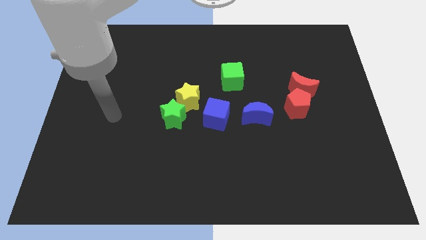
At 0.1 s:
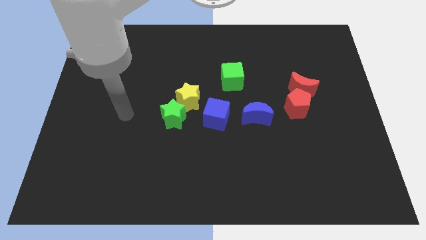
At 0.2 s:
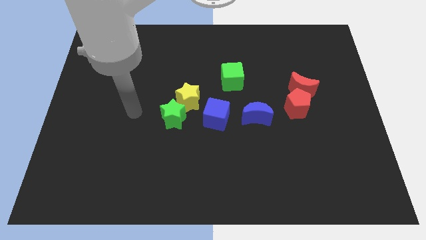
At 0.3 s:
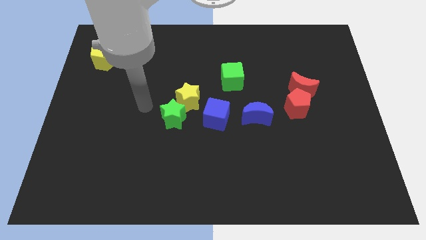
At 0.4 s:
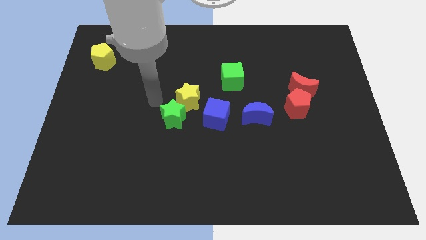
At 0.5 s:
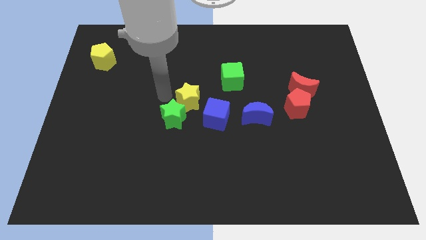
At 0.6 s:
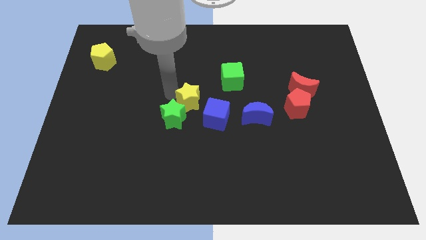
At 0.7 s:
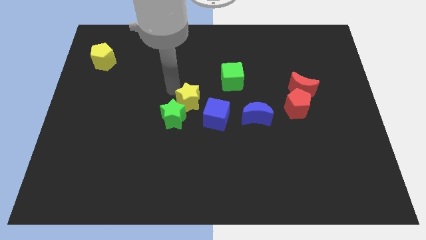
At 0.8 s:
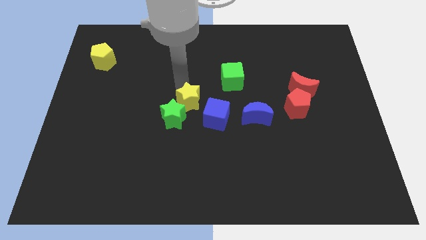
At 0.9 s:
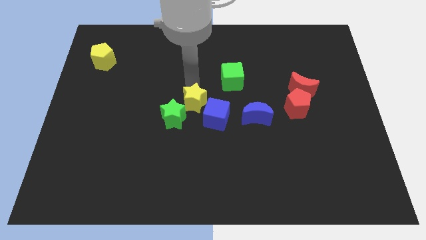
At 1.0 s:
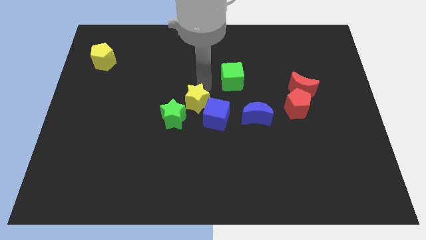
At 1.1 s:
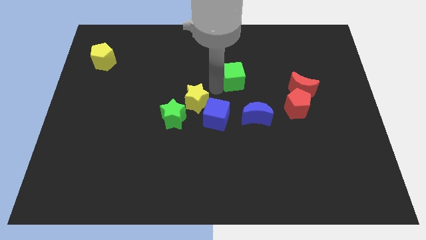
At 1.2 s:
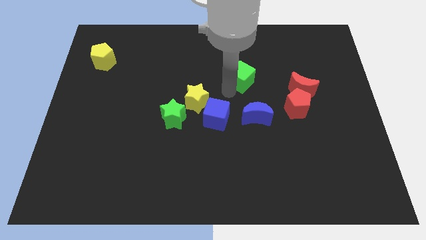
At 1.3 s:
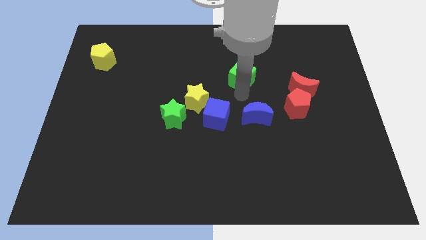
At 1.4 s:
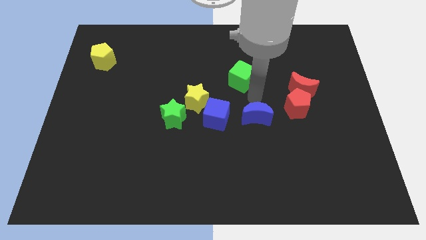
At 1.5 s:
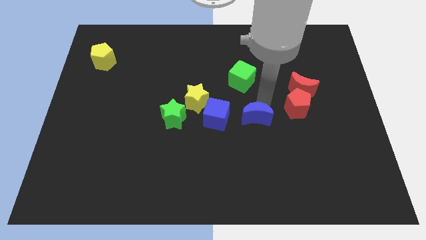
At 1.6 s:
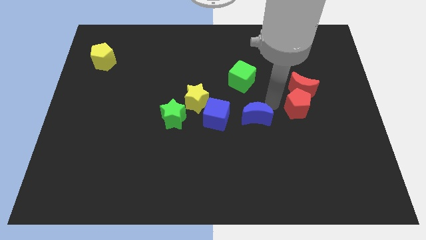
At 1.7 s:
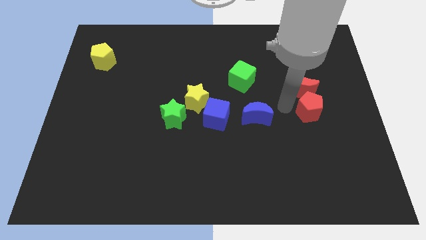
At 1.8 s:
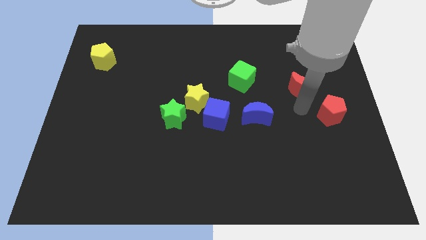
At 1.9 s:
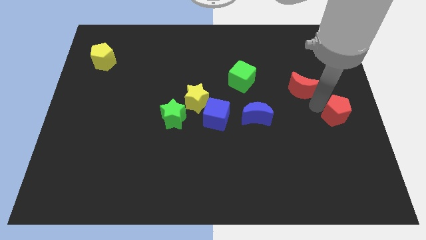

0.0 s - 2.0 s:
pull the red moon apart from the red pentagon

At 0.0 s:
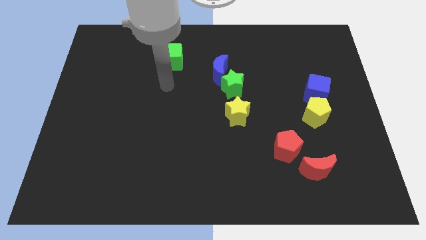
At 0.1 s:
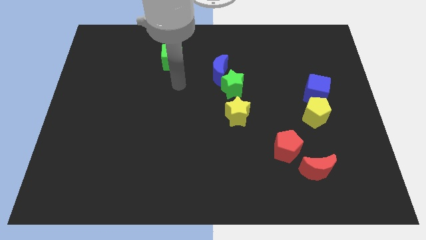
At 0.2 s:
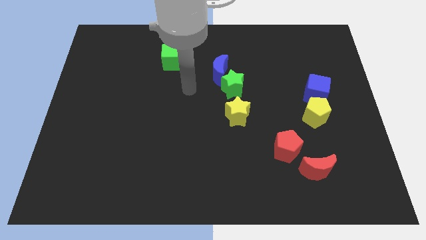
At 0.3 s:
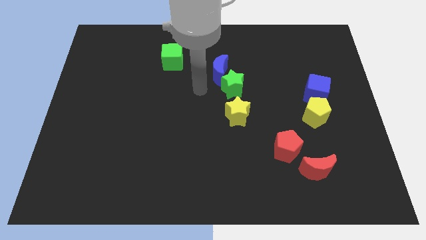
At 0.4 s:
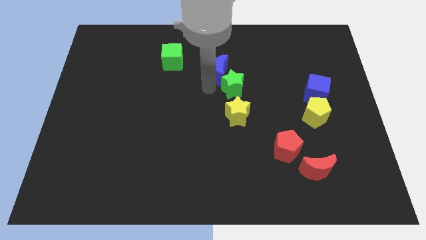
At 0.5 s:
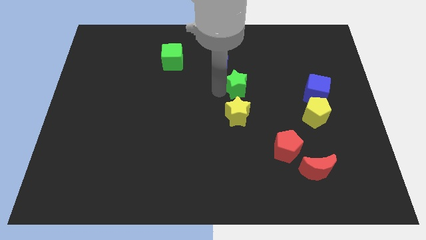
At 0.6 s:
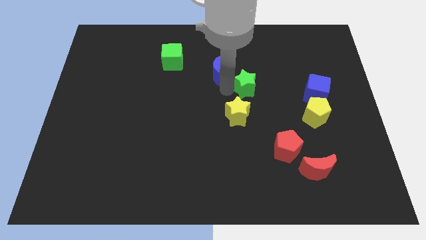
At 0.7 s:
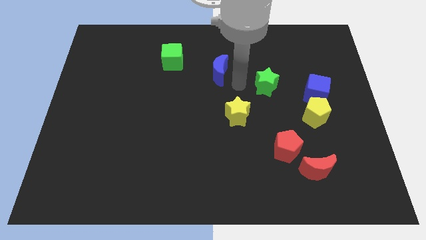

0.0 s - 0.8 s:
pull the blue moon apart from the green star

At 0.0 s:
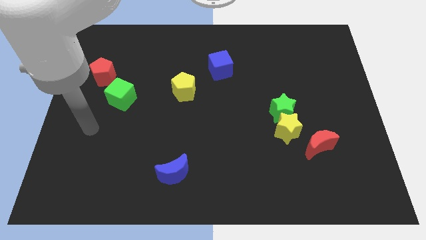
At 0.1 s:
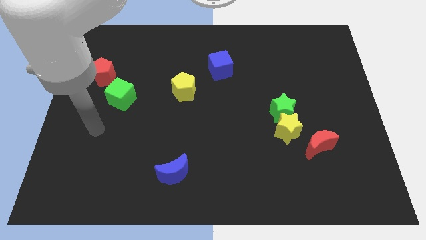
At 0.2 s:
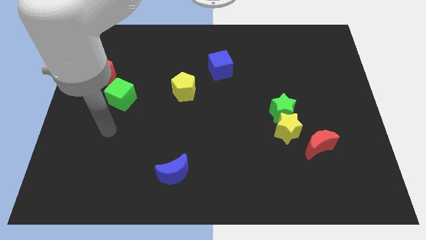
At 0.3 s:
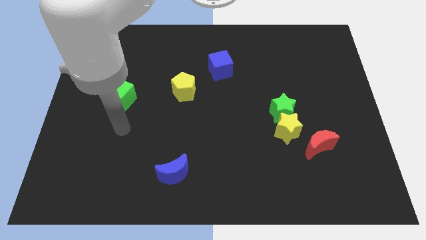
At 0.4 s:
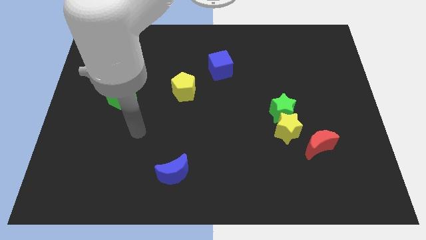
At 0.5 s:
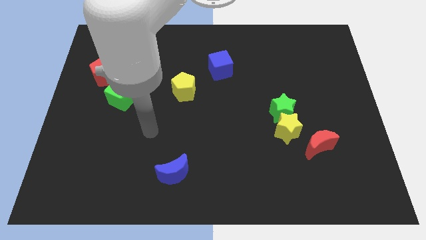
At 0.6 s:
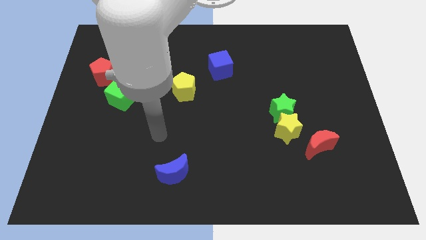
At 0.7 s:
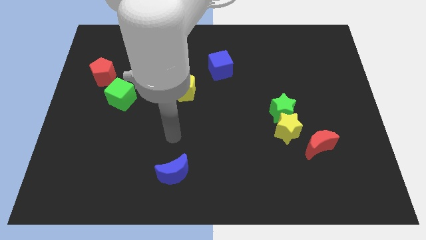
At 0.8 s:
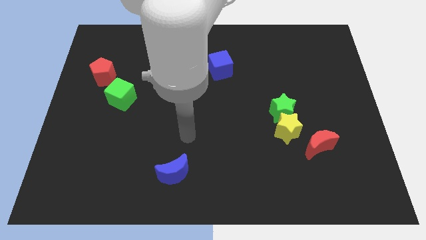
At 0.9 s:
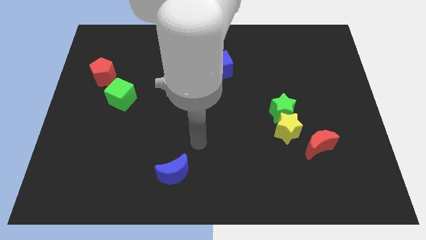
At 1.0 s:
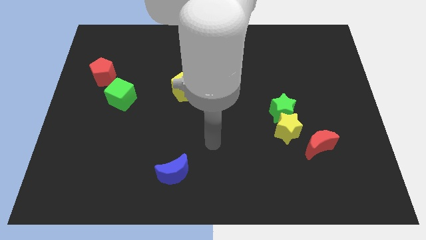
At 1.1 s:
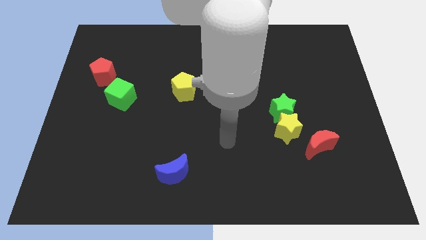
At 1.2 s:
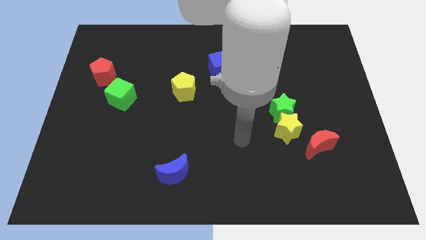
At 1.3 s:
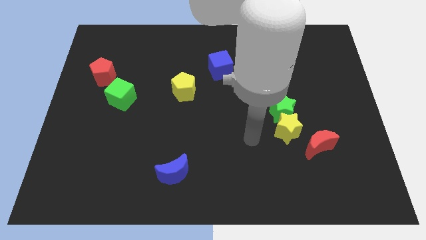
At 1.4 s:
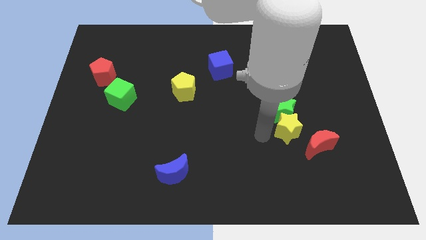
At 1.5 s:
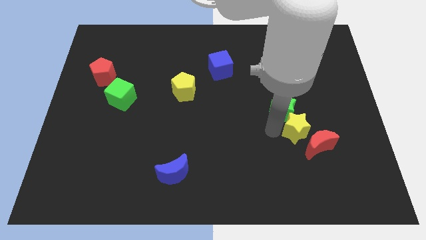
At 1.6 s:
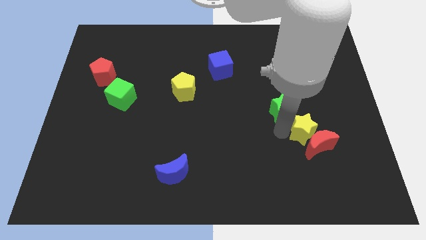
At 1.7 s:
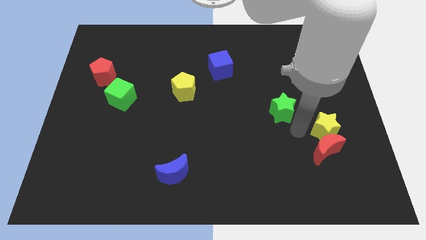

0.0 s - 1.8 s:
separate the green star from the yellow star

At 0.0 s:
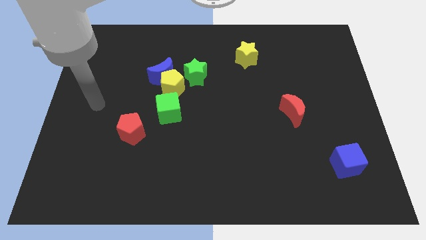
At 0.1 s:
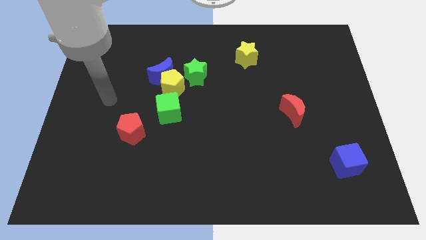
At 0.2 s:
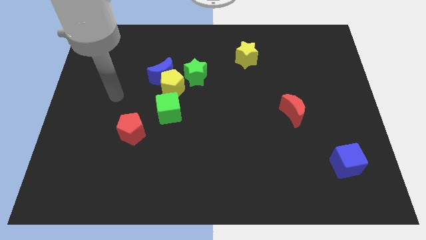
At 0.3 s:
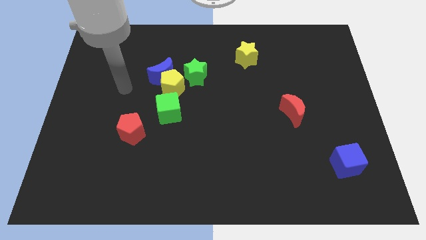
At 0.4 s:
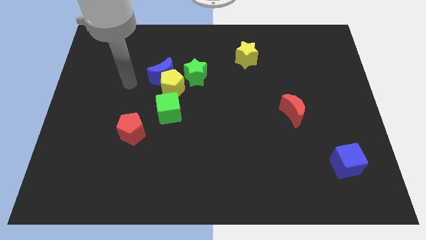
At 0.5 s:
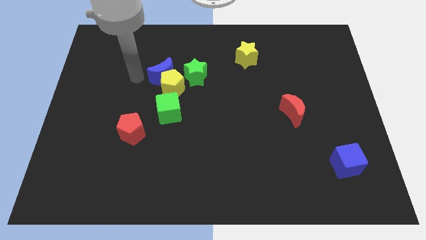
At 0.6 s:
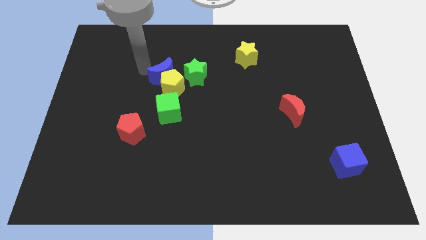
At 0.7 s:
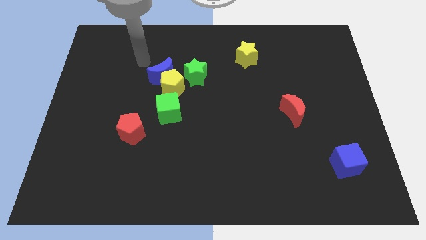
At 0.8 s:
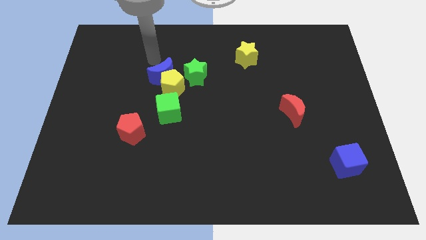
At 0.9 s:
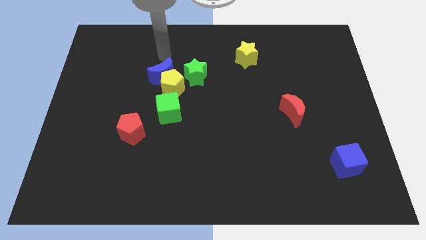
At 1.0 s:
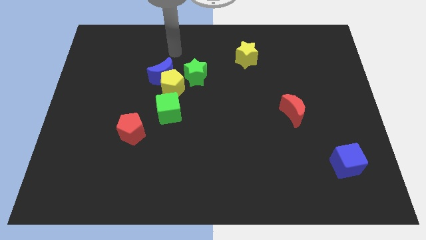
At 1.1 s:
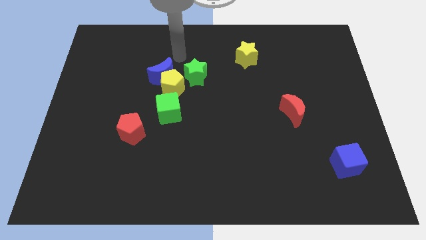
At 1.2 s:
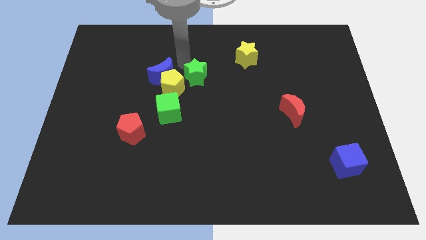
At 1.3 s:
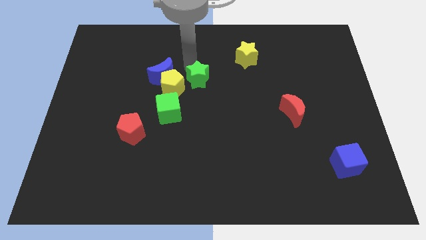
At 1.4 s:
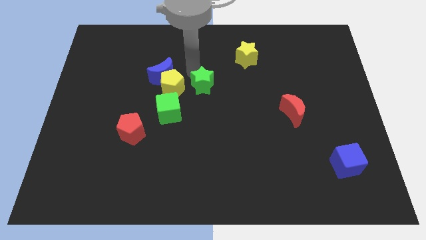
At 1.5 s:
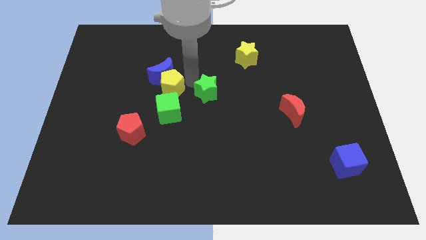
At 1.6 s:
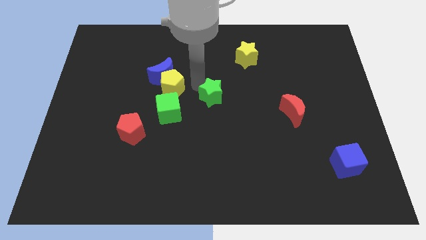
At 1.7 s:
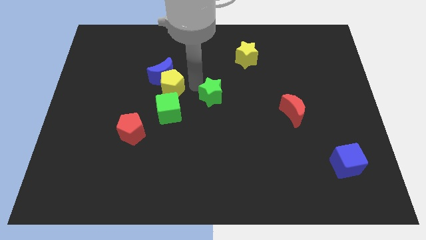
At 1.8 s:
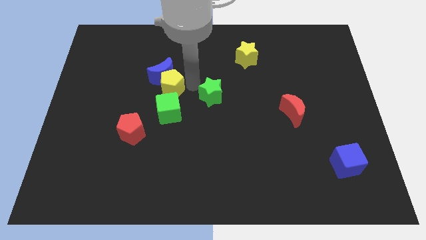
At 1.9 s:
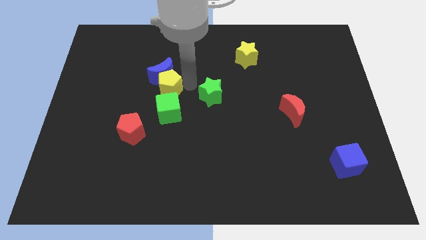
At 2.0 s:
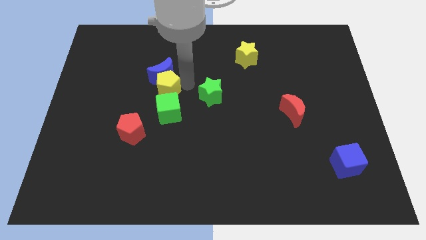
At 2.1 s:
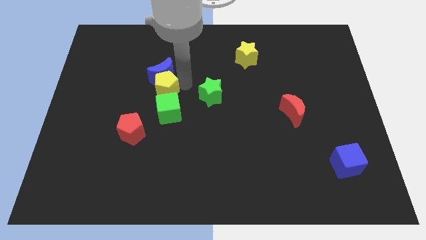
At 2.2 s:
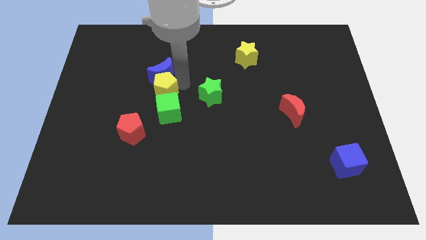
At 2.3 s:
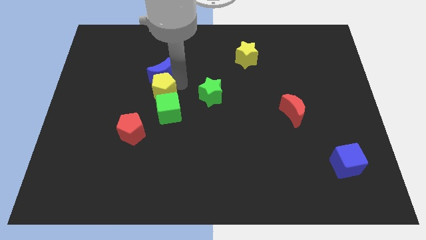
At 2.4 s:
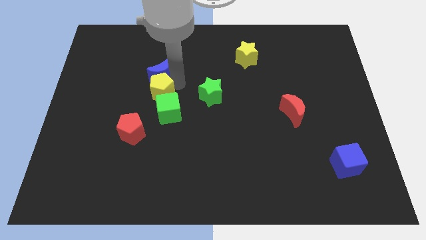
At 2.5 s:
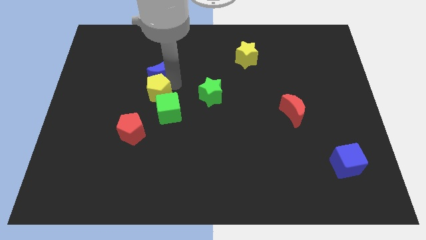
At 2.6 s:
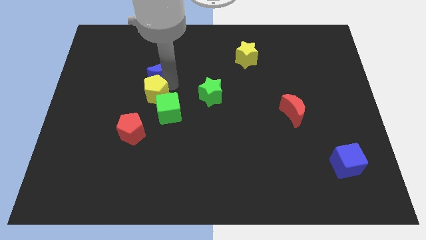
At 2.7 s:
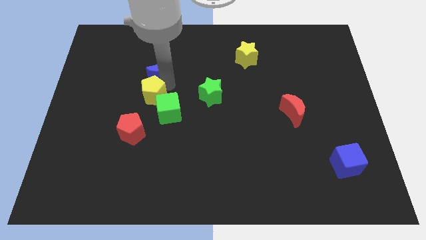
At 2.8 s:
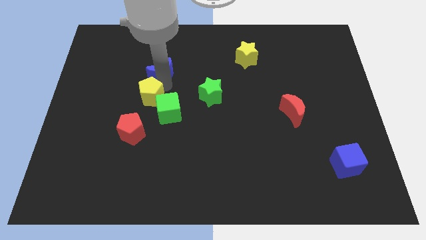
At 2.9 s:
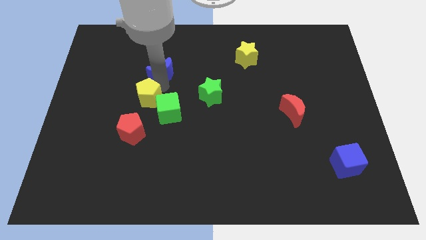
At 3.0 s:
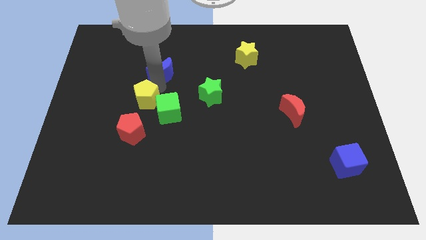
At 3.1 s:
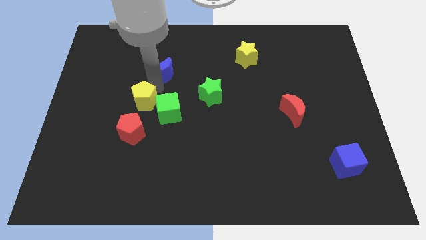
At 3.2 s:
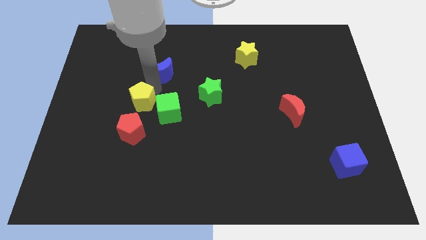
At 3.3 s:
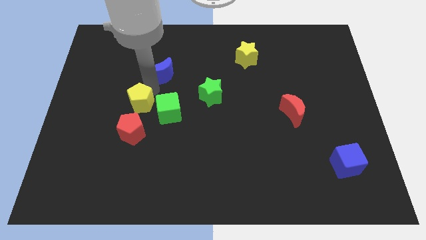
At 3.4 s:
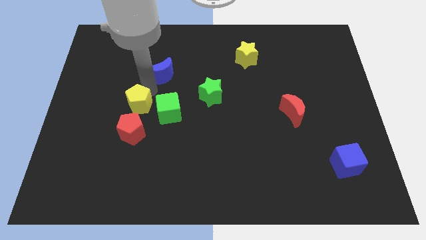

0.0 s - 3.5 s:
pull the yellow pentagon apart from the group of blocks

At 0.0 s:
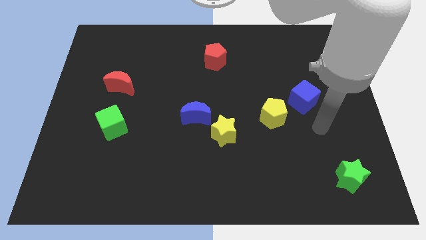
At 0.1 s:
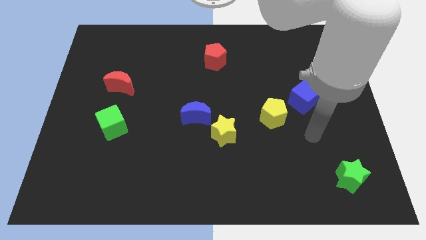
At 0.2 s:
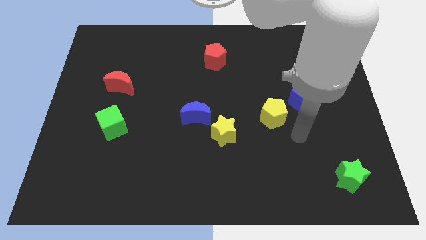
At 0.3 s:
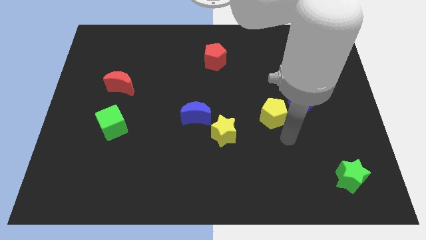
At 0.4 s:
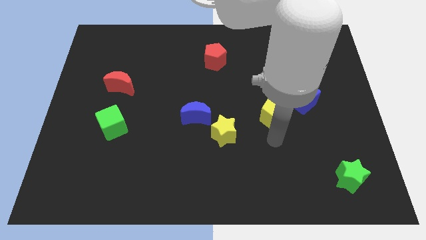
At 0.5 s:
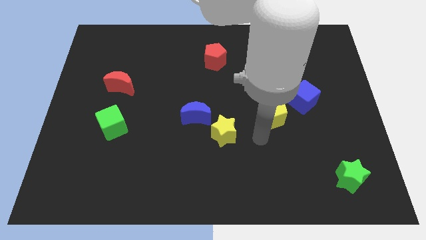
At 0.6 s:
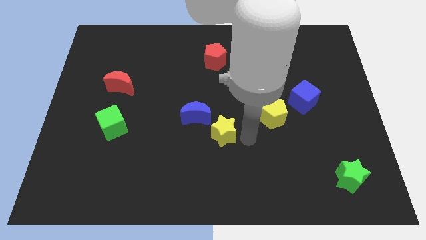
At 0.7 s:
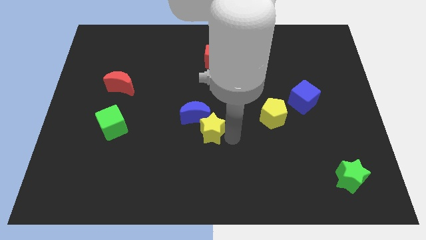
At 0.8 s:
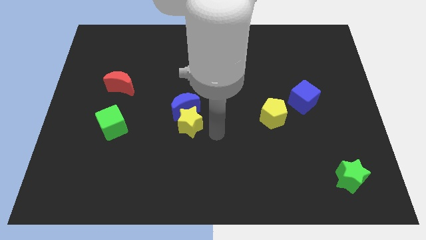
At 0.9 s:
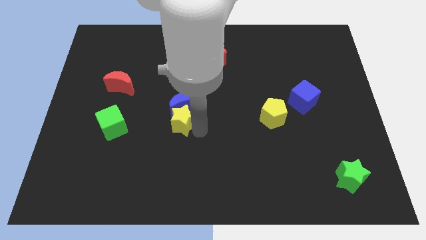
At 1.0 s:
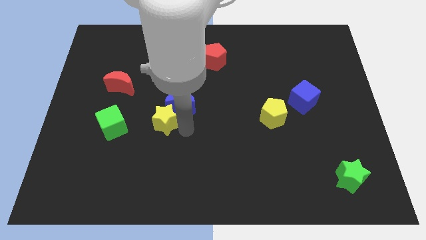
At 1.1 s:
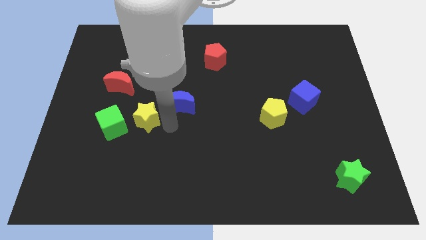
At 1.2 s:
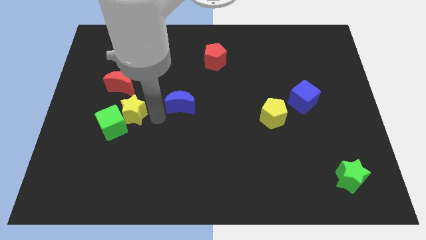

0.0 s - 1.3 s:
move the blue moon away from the yellow star
